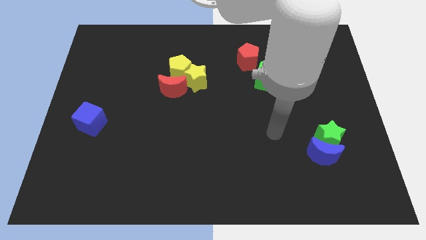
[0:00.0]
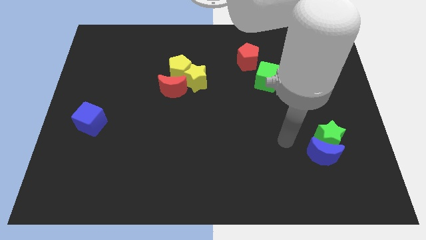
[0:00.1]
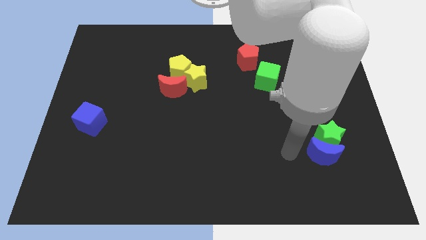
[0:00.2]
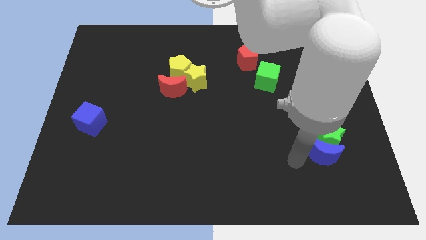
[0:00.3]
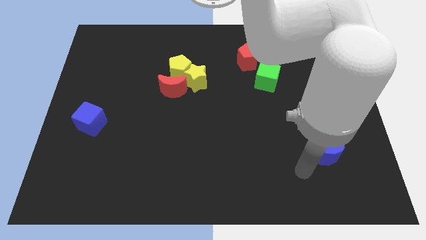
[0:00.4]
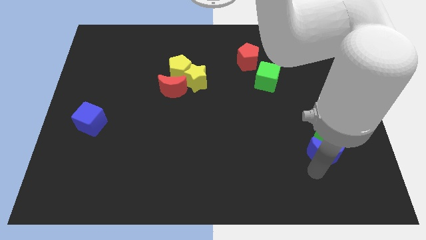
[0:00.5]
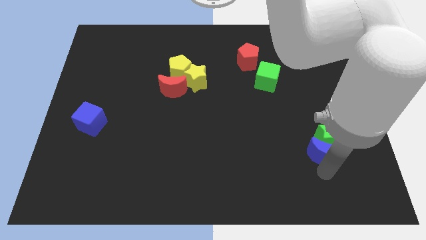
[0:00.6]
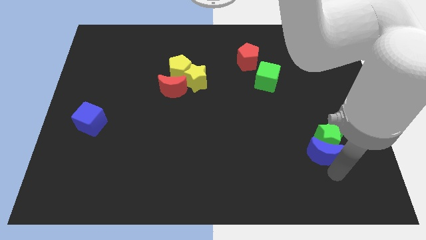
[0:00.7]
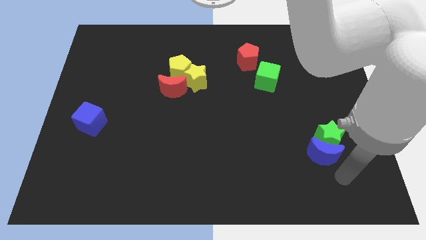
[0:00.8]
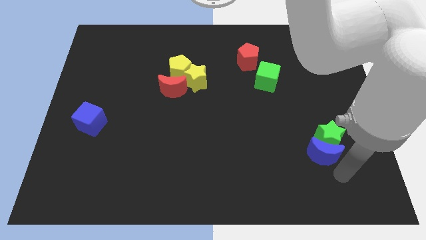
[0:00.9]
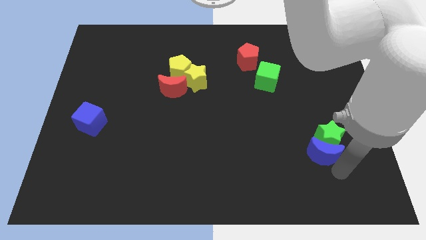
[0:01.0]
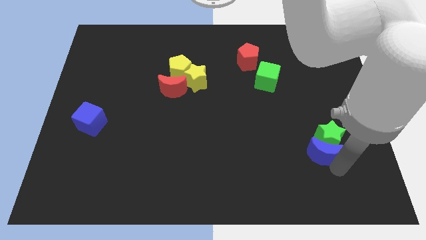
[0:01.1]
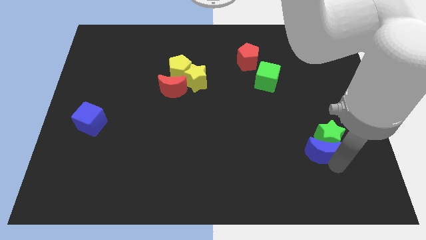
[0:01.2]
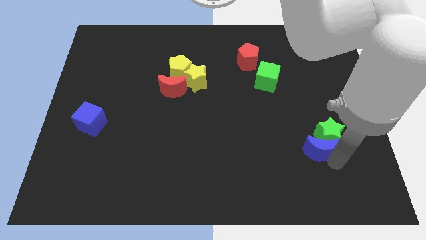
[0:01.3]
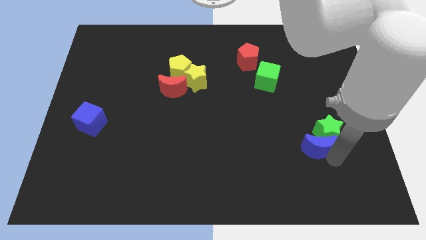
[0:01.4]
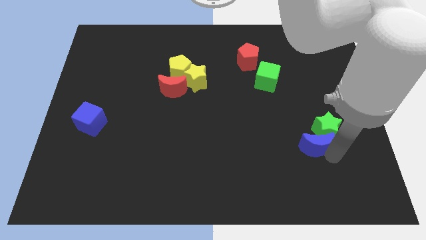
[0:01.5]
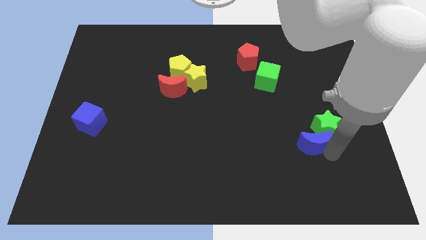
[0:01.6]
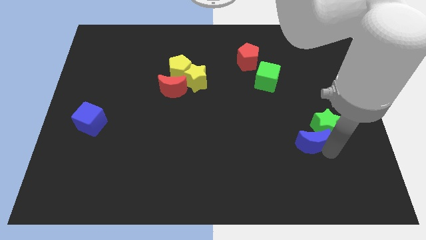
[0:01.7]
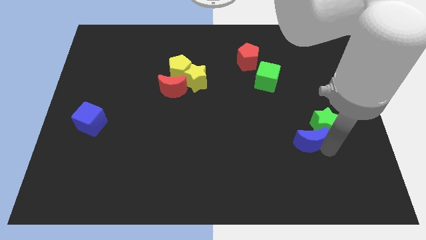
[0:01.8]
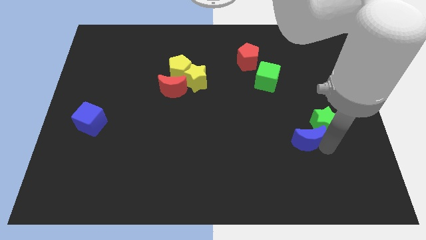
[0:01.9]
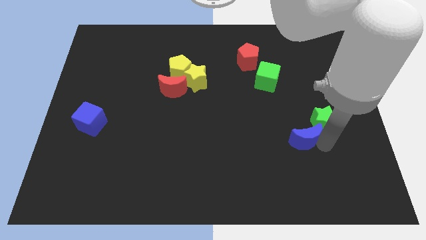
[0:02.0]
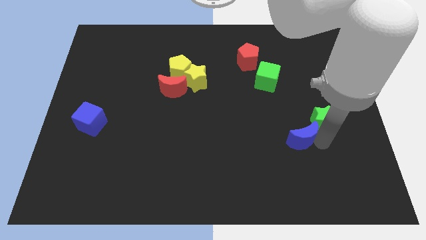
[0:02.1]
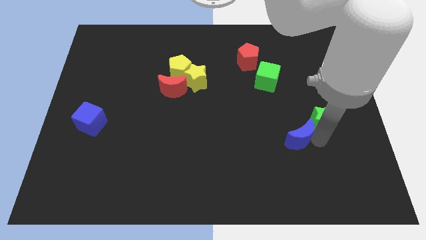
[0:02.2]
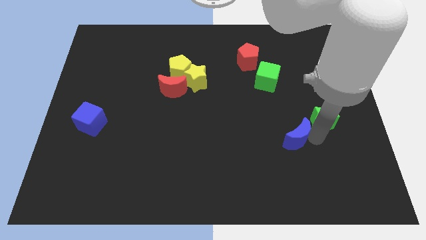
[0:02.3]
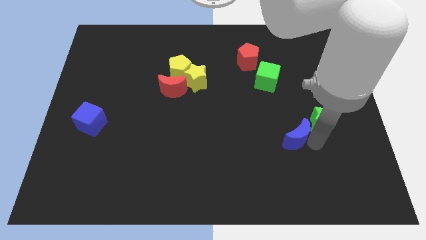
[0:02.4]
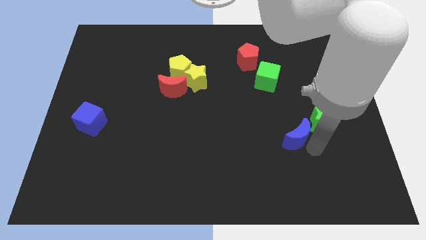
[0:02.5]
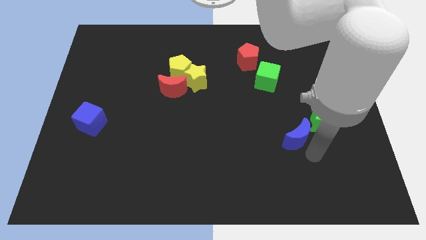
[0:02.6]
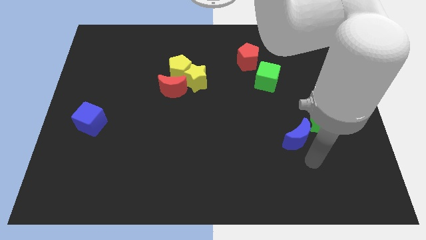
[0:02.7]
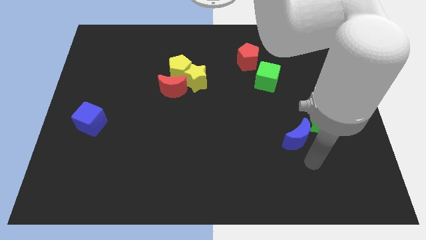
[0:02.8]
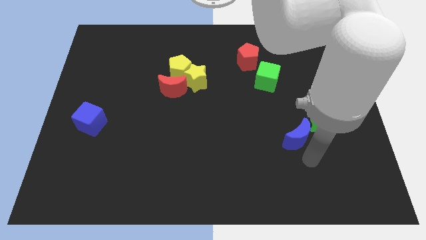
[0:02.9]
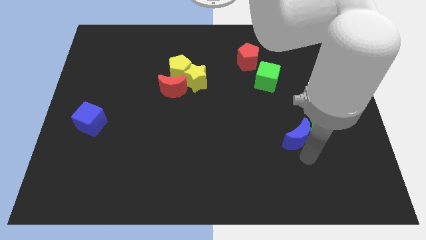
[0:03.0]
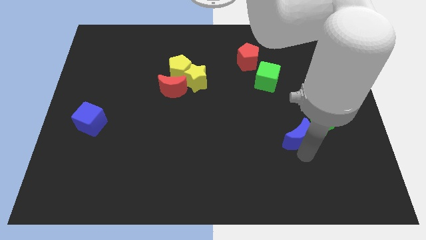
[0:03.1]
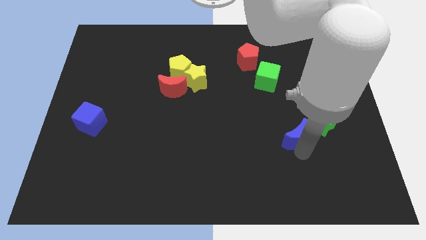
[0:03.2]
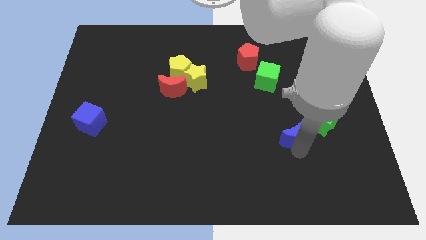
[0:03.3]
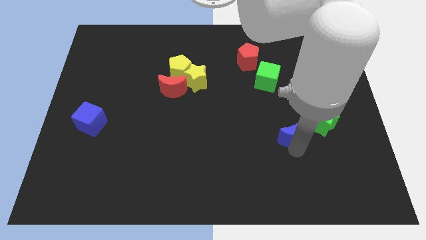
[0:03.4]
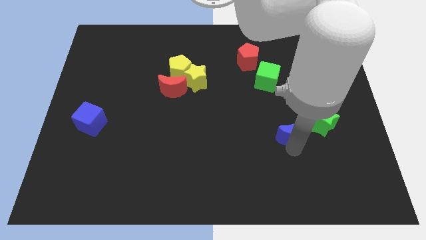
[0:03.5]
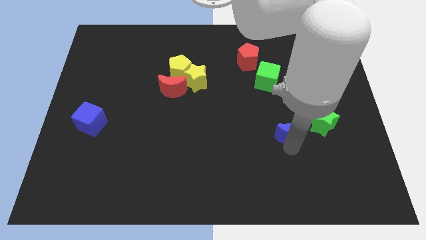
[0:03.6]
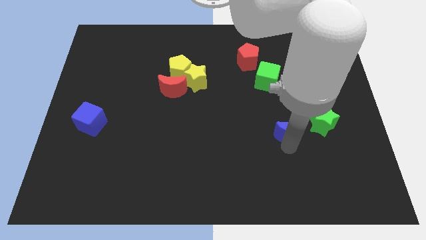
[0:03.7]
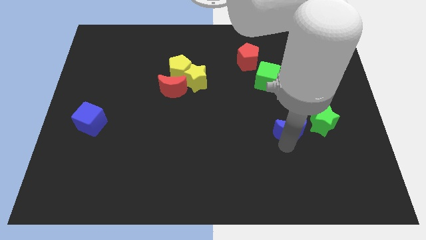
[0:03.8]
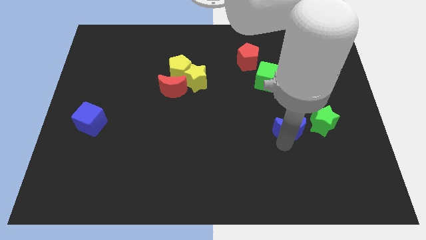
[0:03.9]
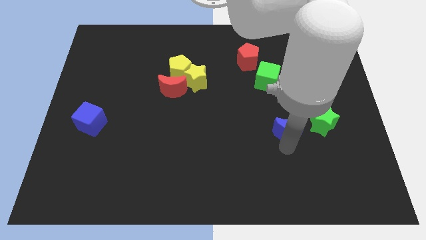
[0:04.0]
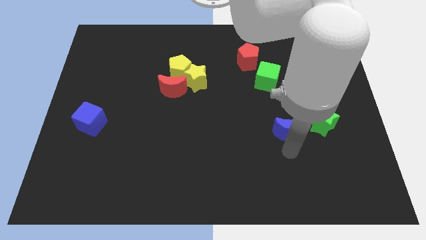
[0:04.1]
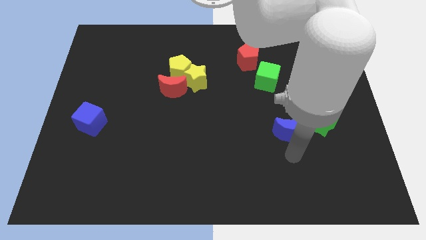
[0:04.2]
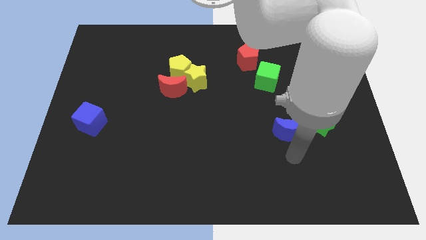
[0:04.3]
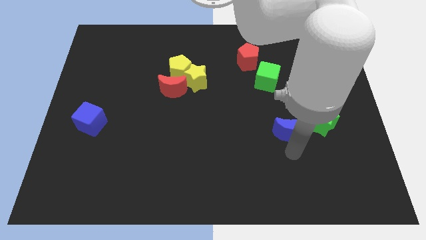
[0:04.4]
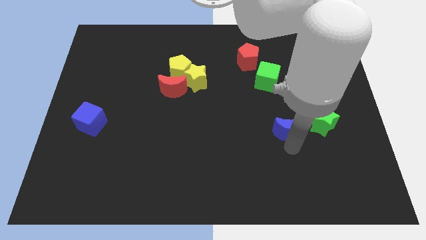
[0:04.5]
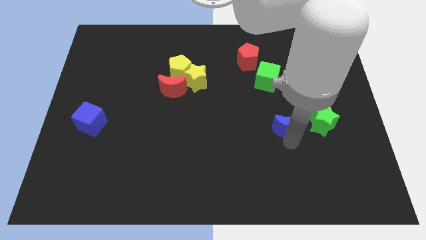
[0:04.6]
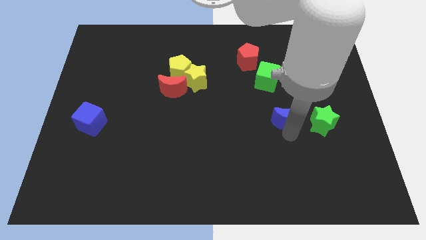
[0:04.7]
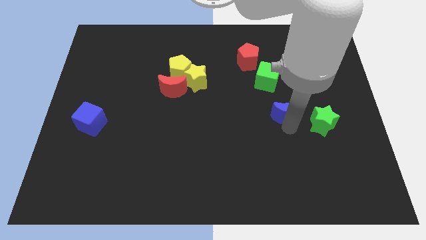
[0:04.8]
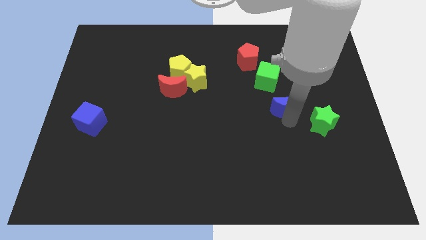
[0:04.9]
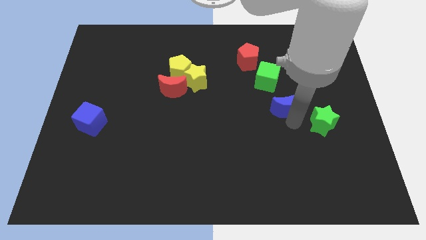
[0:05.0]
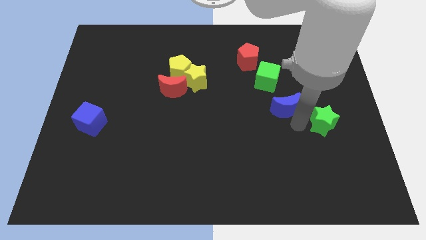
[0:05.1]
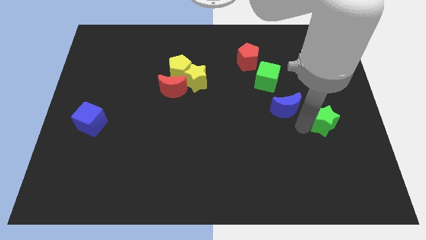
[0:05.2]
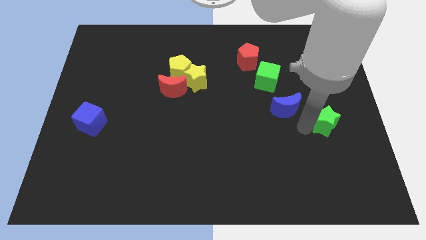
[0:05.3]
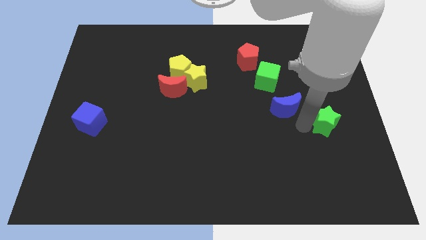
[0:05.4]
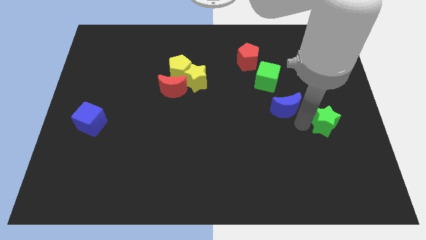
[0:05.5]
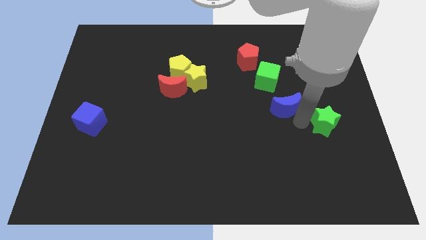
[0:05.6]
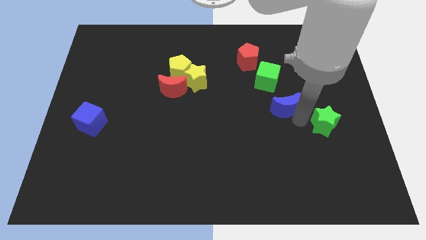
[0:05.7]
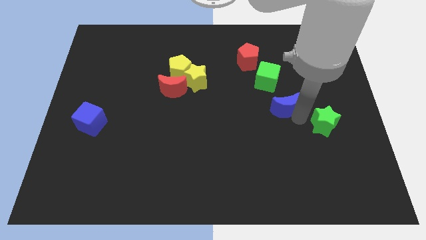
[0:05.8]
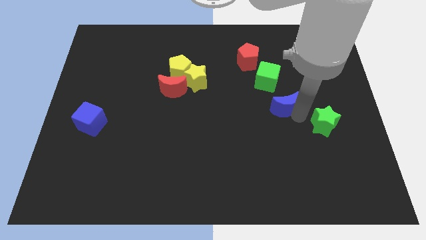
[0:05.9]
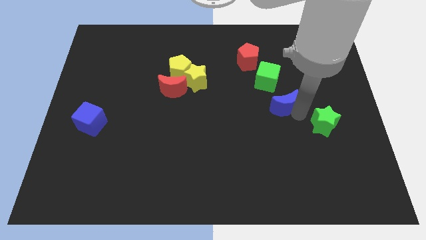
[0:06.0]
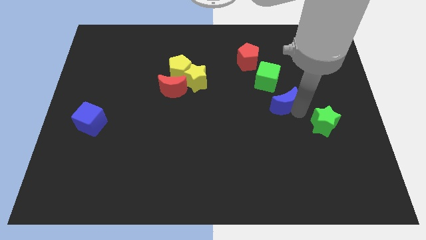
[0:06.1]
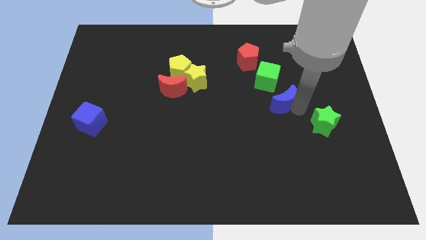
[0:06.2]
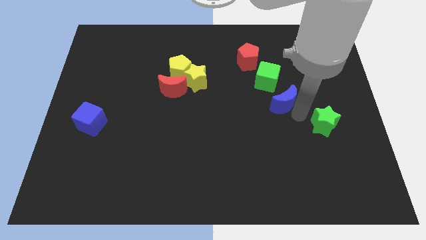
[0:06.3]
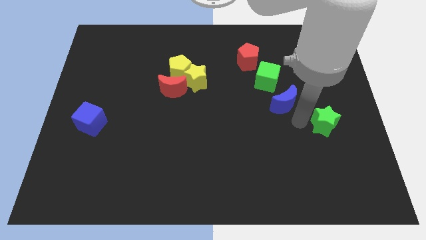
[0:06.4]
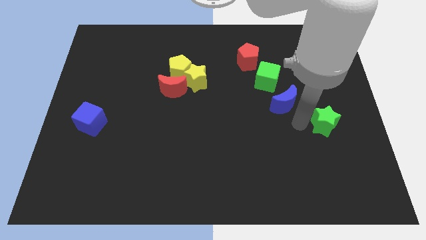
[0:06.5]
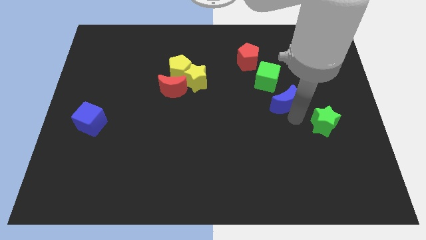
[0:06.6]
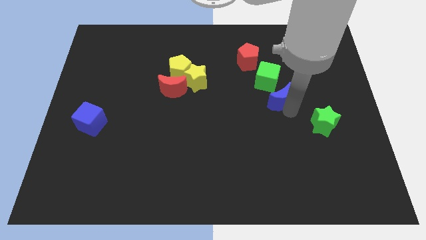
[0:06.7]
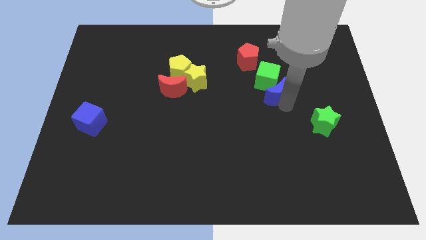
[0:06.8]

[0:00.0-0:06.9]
put the blue moon next to the green cube
